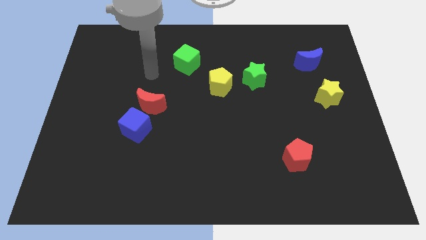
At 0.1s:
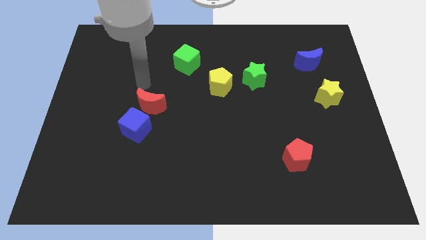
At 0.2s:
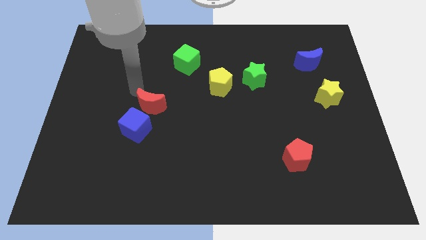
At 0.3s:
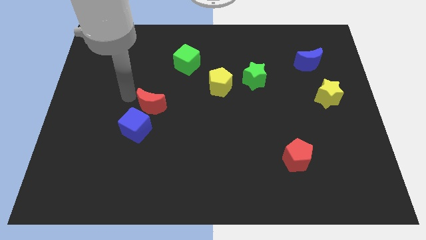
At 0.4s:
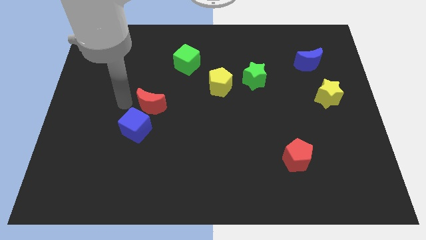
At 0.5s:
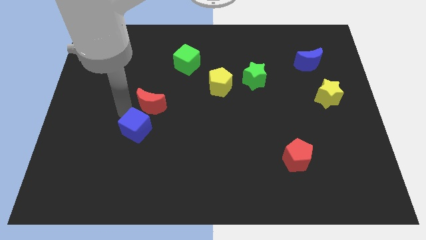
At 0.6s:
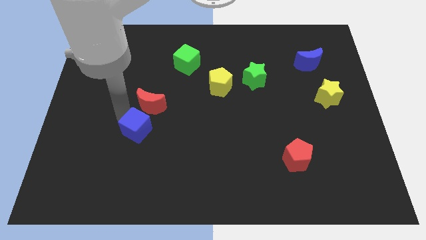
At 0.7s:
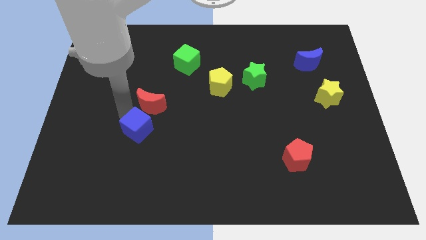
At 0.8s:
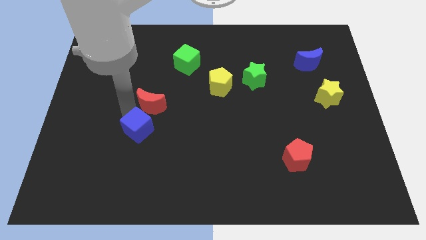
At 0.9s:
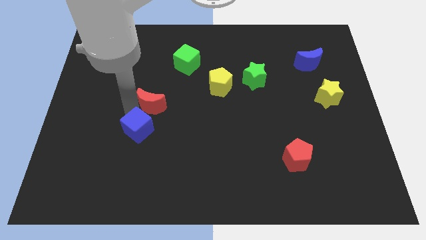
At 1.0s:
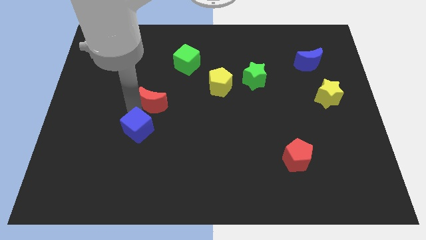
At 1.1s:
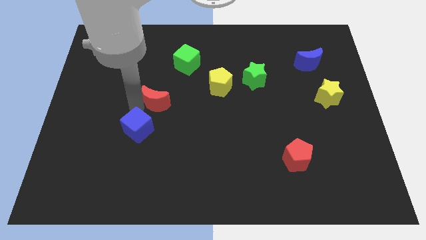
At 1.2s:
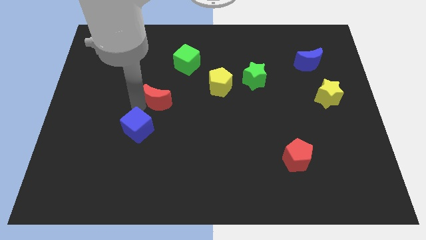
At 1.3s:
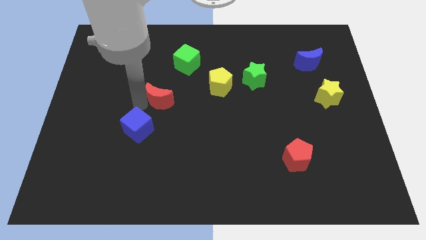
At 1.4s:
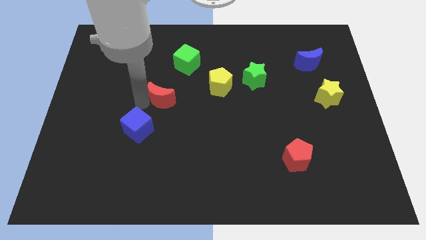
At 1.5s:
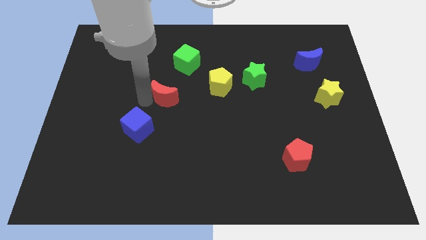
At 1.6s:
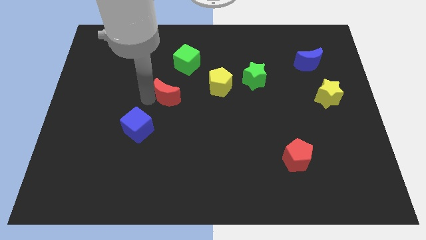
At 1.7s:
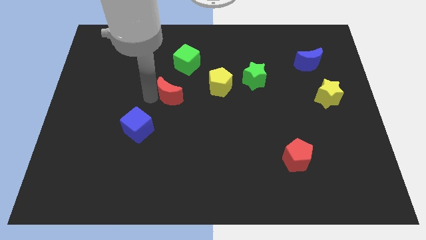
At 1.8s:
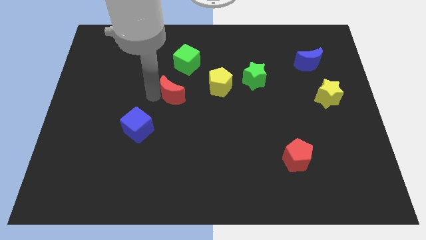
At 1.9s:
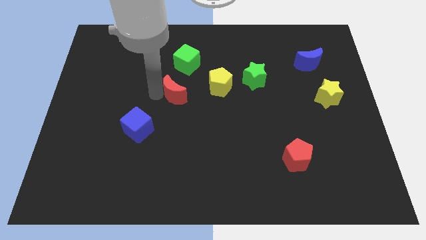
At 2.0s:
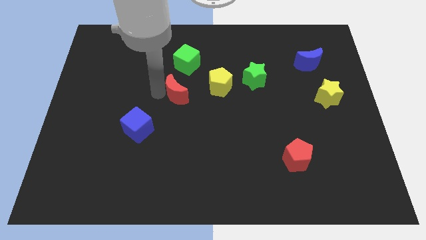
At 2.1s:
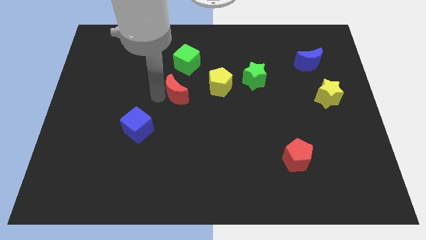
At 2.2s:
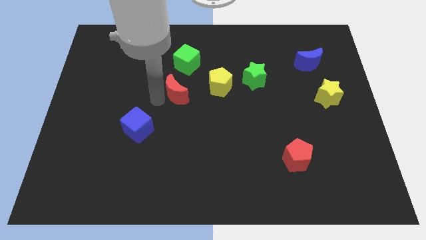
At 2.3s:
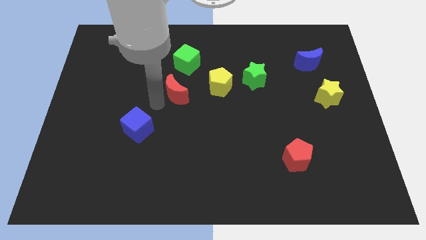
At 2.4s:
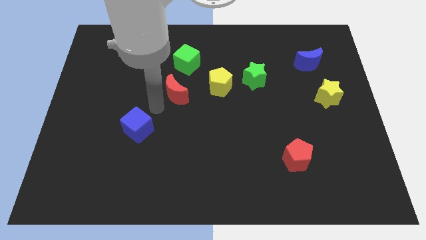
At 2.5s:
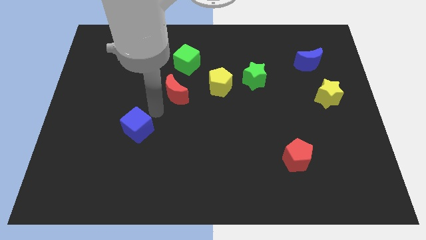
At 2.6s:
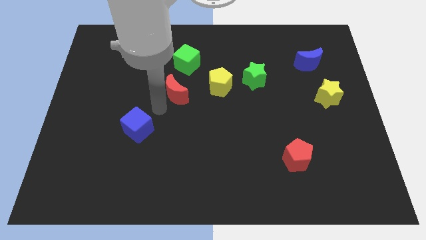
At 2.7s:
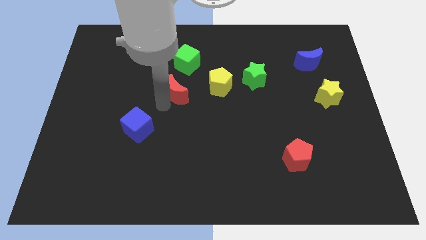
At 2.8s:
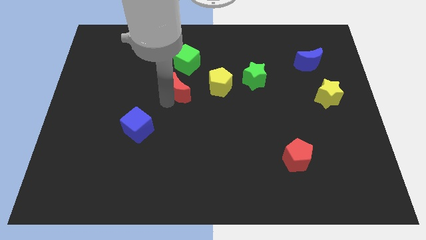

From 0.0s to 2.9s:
move the red moon somewhat diagonally up and to the right

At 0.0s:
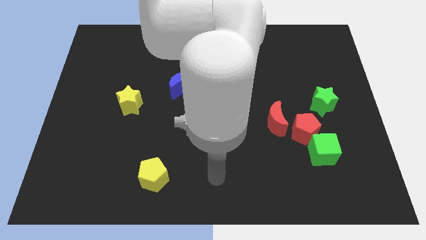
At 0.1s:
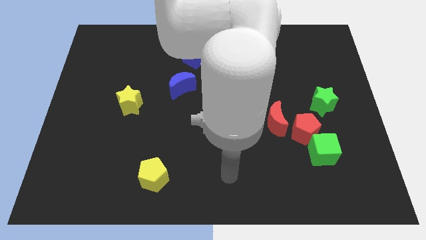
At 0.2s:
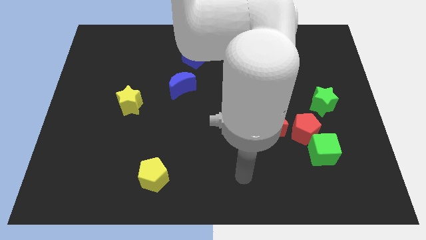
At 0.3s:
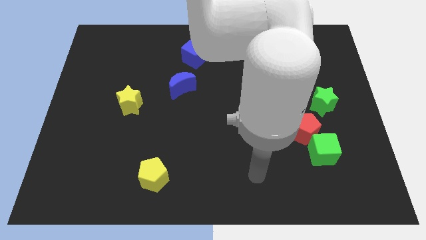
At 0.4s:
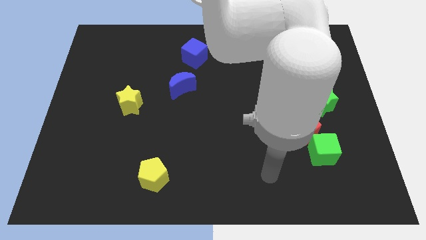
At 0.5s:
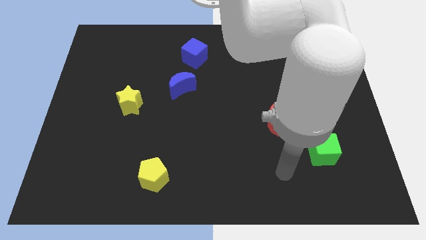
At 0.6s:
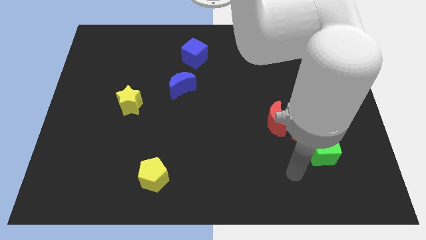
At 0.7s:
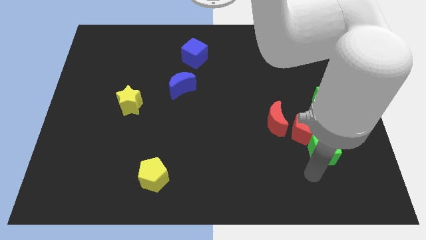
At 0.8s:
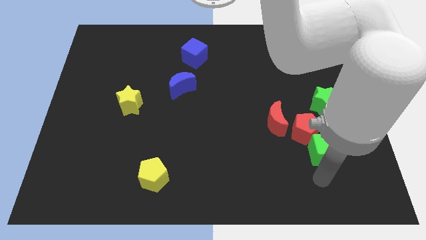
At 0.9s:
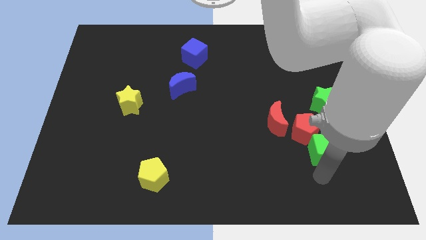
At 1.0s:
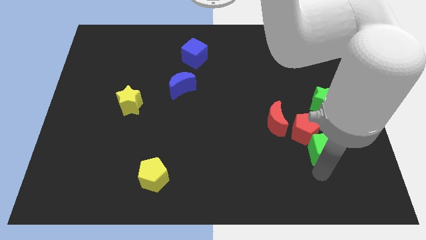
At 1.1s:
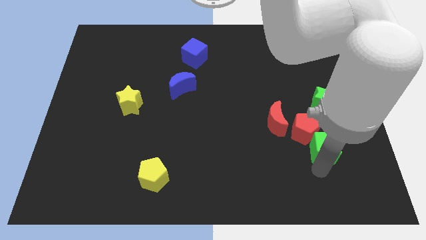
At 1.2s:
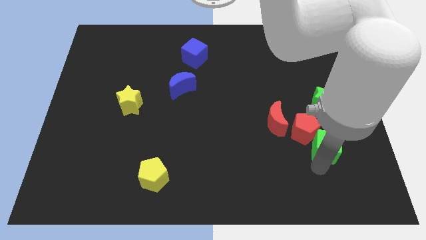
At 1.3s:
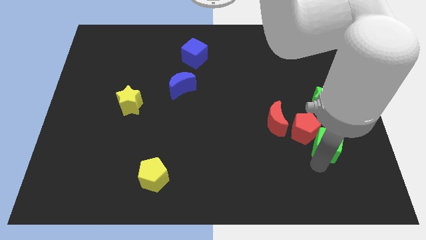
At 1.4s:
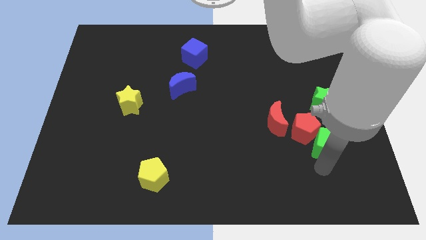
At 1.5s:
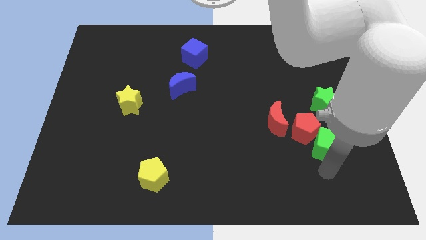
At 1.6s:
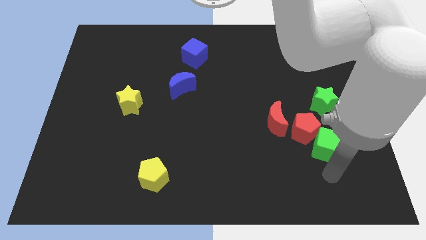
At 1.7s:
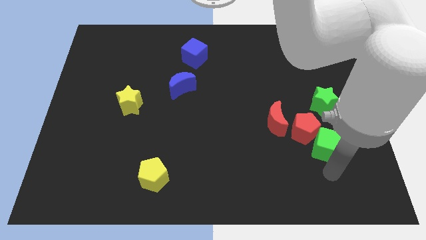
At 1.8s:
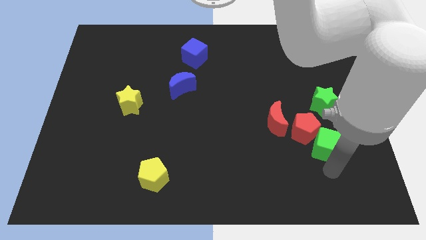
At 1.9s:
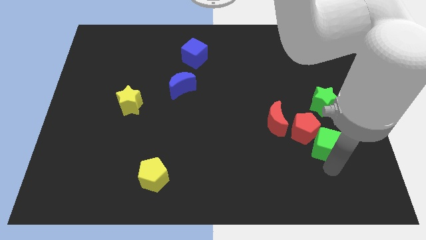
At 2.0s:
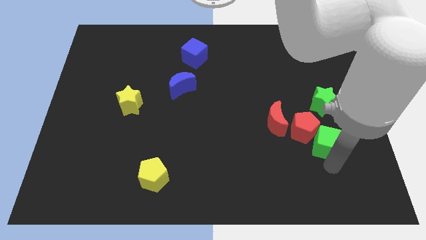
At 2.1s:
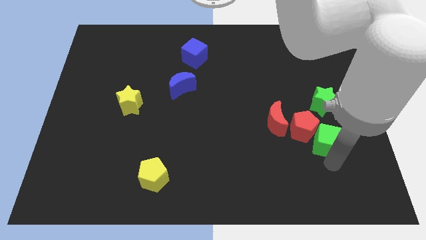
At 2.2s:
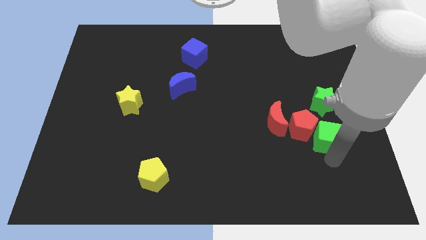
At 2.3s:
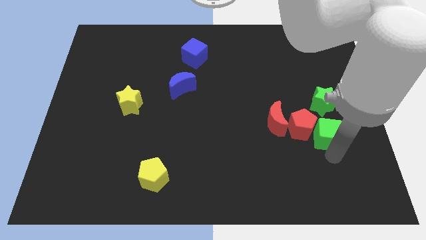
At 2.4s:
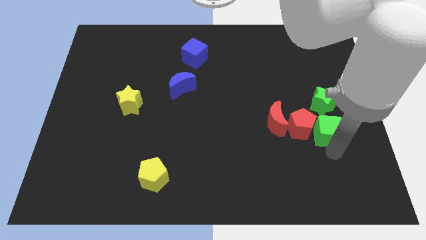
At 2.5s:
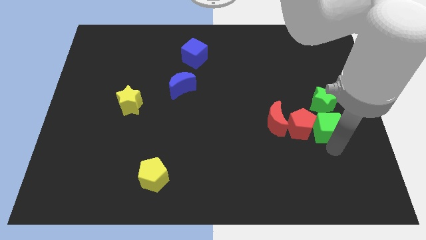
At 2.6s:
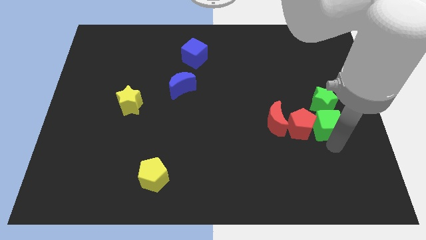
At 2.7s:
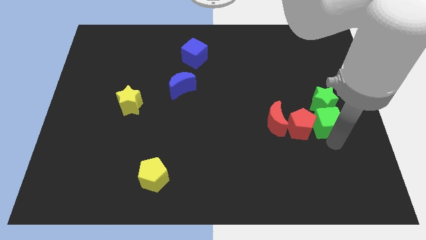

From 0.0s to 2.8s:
move the green cube upwards a little

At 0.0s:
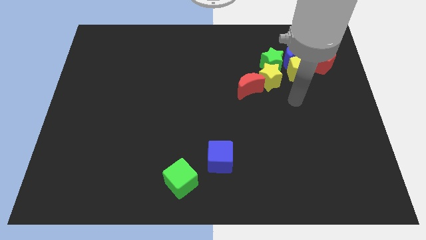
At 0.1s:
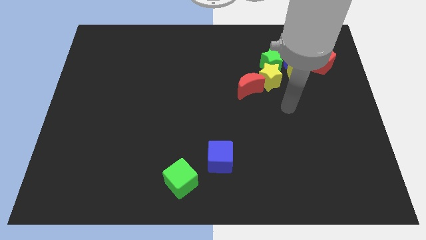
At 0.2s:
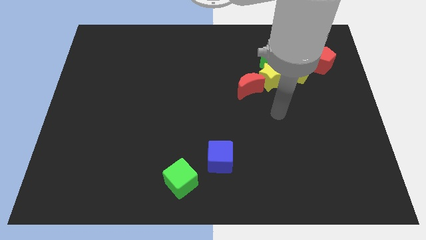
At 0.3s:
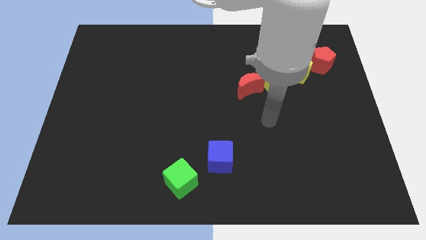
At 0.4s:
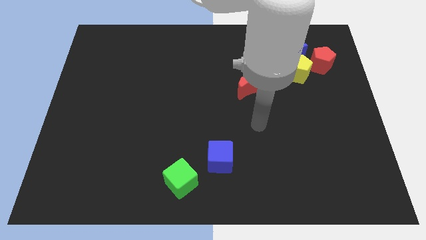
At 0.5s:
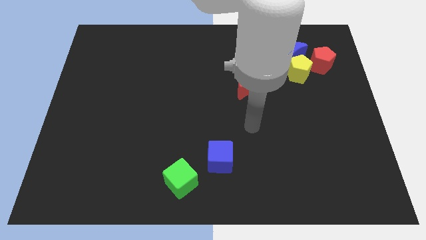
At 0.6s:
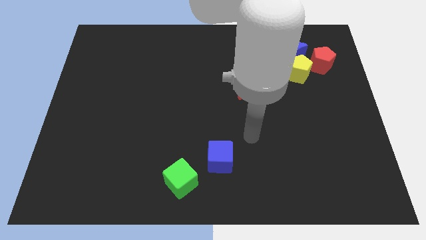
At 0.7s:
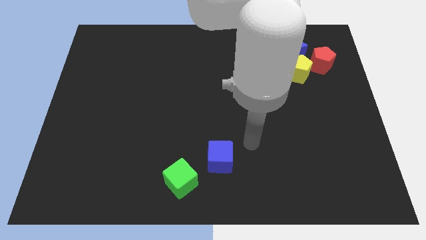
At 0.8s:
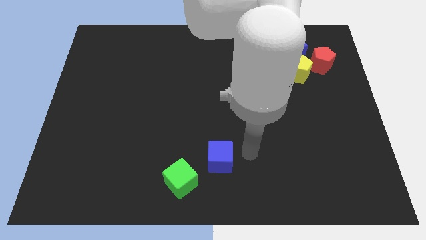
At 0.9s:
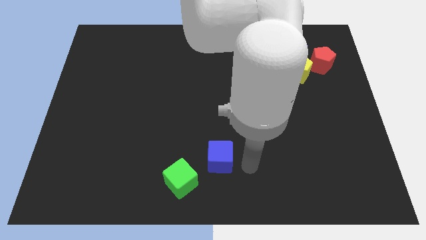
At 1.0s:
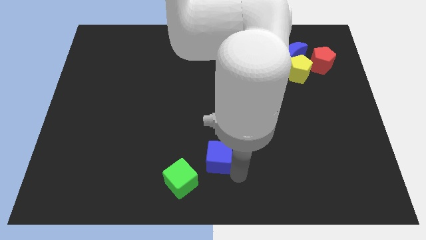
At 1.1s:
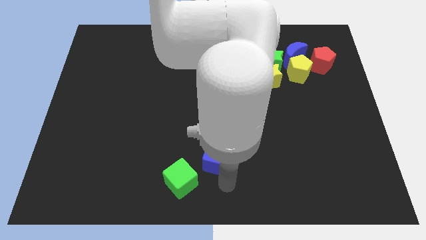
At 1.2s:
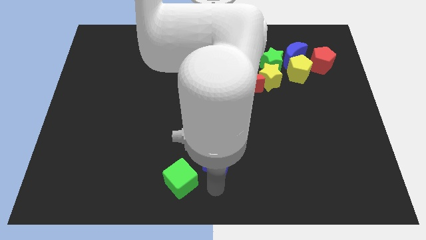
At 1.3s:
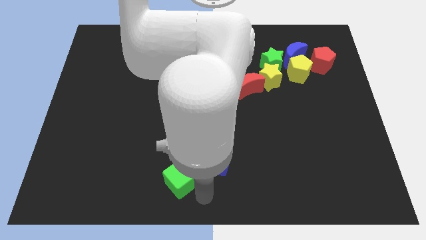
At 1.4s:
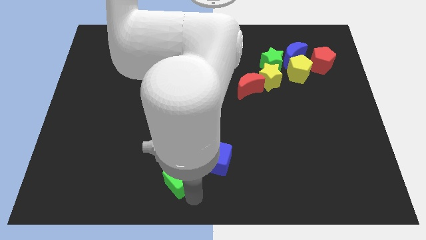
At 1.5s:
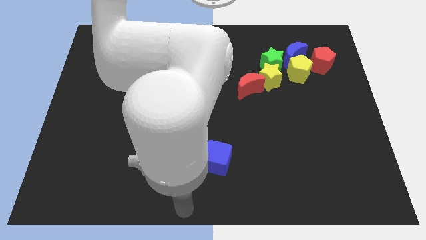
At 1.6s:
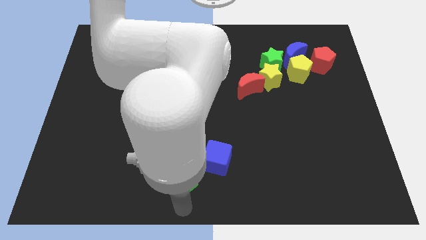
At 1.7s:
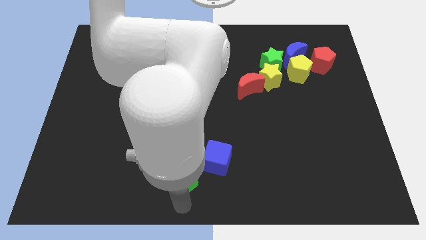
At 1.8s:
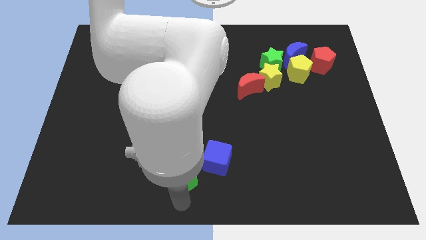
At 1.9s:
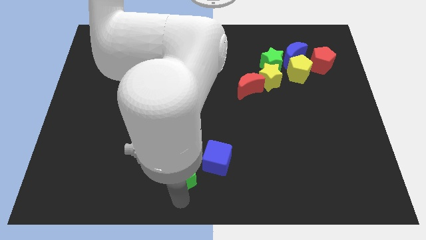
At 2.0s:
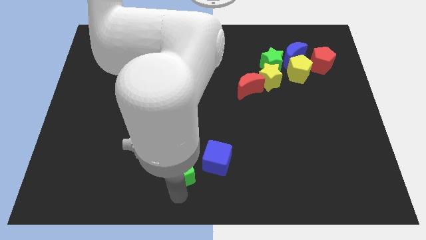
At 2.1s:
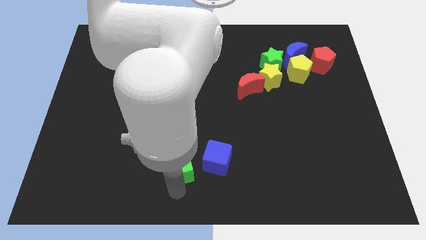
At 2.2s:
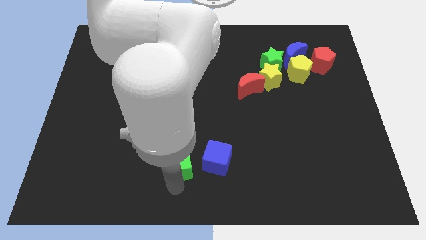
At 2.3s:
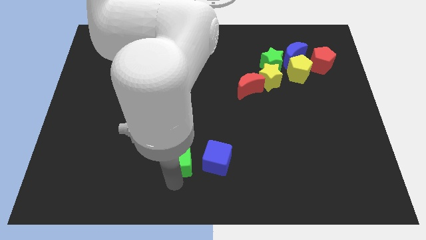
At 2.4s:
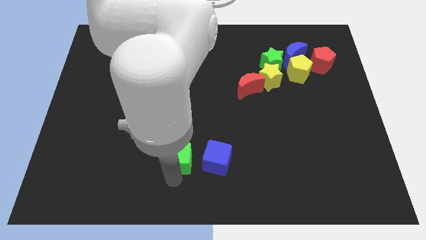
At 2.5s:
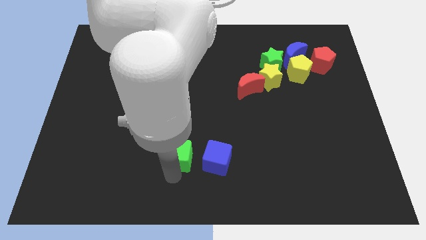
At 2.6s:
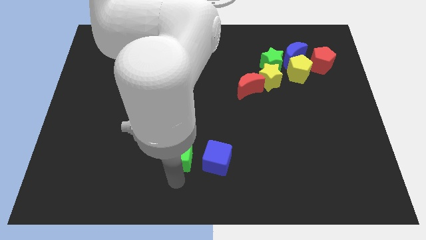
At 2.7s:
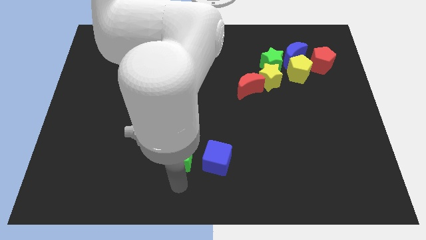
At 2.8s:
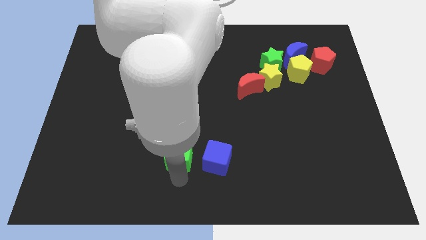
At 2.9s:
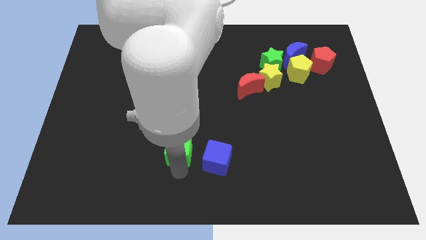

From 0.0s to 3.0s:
slightly move the green cube upwards
